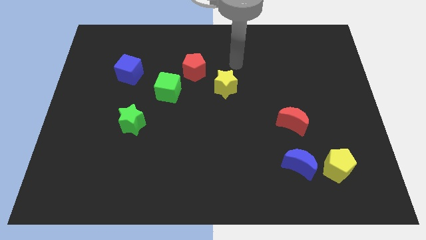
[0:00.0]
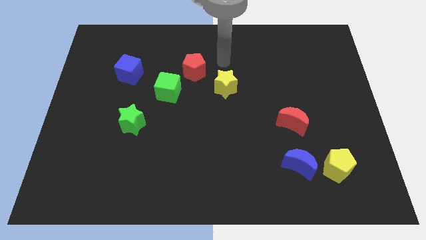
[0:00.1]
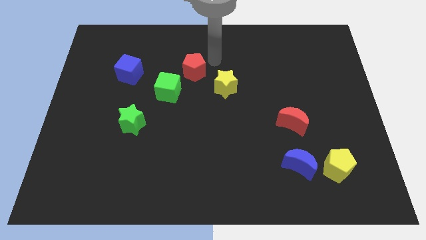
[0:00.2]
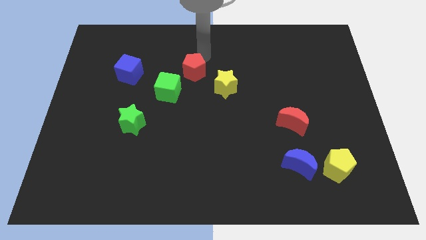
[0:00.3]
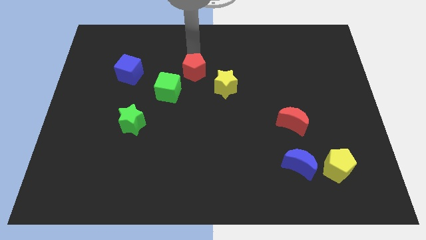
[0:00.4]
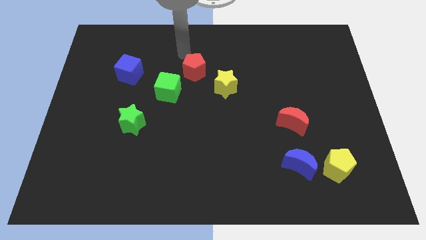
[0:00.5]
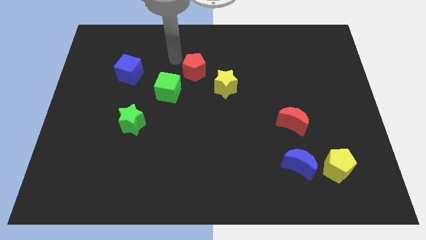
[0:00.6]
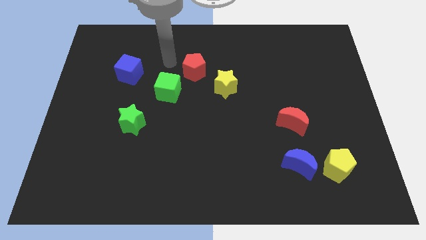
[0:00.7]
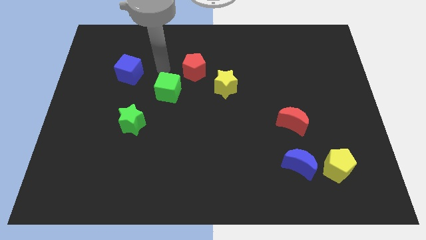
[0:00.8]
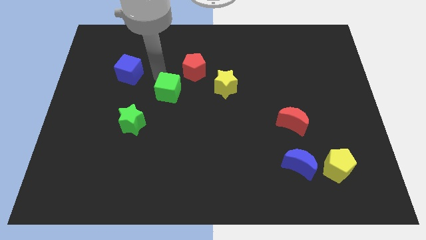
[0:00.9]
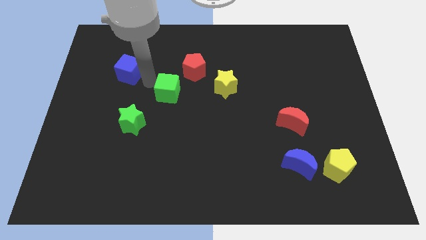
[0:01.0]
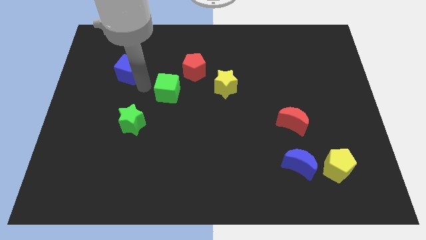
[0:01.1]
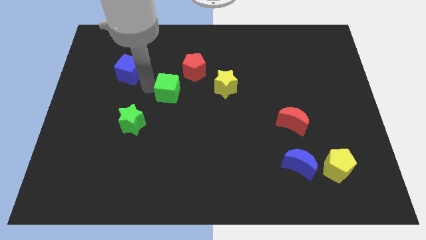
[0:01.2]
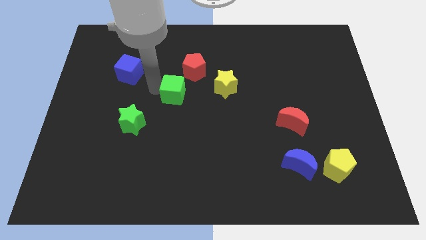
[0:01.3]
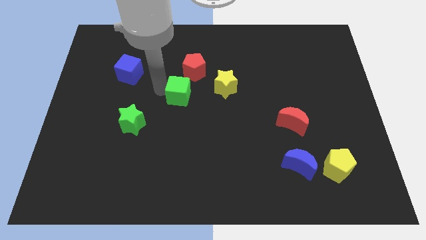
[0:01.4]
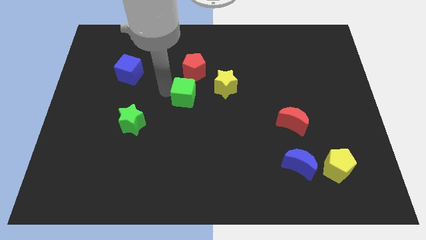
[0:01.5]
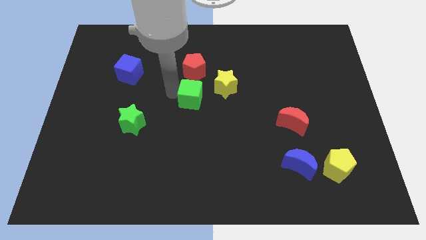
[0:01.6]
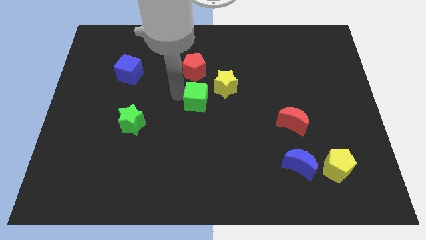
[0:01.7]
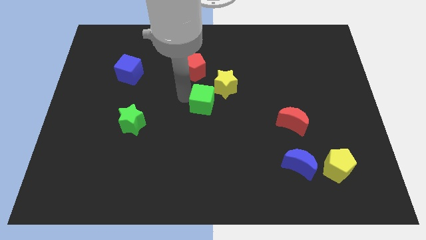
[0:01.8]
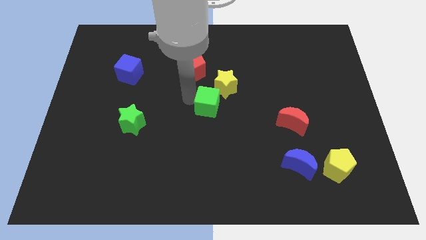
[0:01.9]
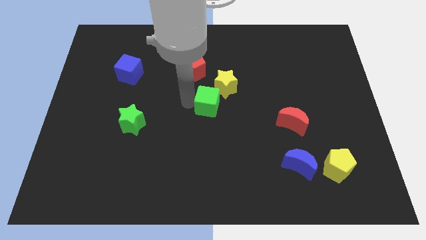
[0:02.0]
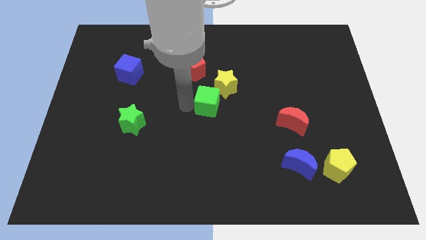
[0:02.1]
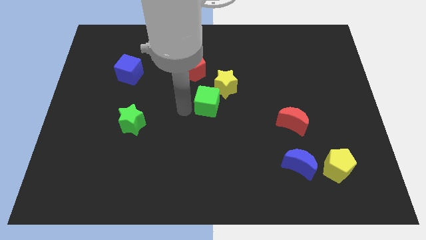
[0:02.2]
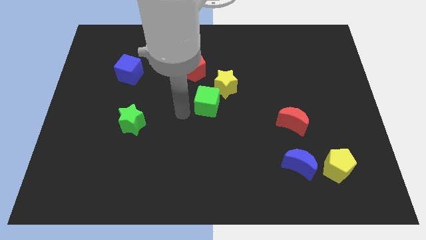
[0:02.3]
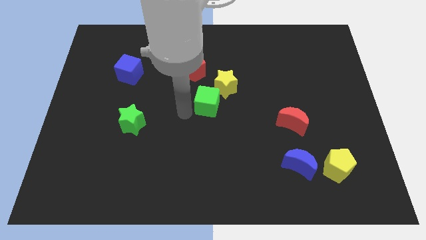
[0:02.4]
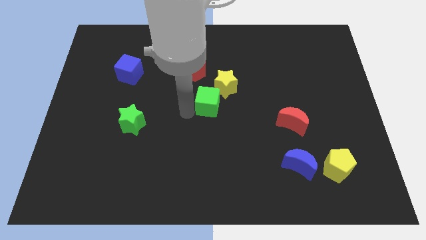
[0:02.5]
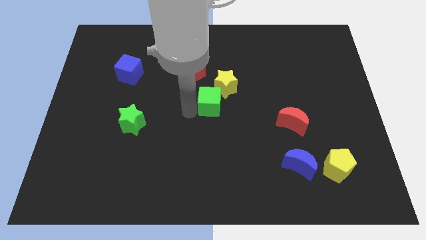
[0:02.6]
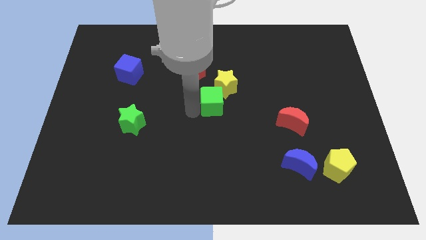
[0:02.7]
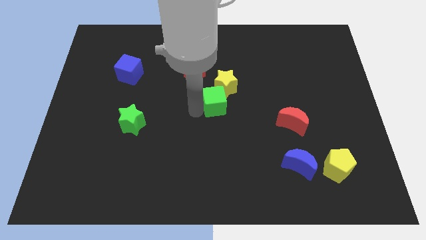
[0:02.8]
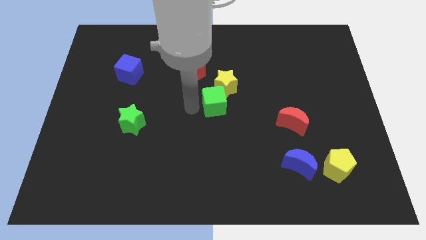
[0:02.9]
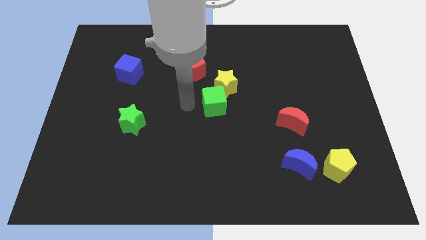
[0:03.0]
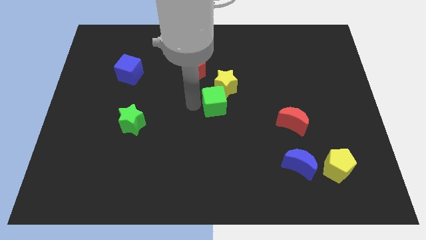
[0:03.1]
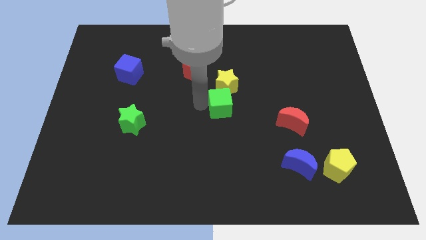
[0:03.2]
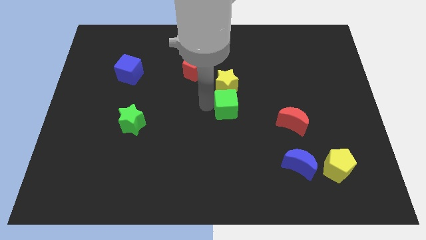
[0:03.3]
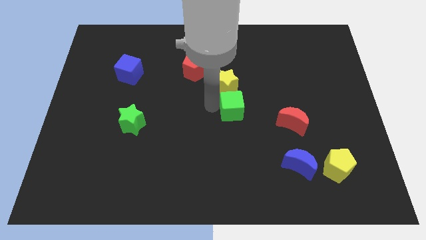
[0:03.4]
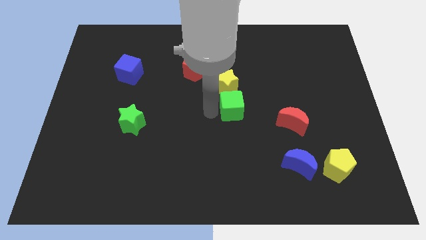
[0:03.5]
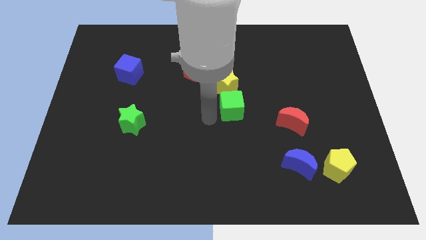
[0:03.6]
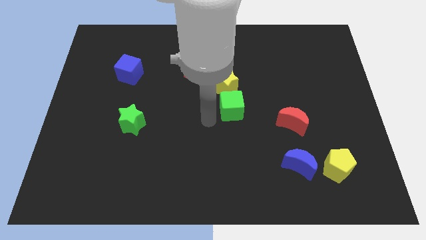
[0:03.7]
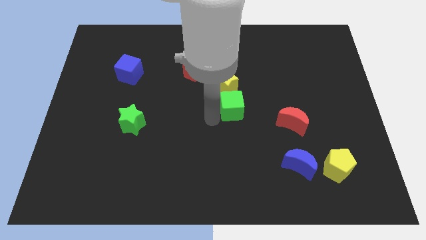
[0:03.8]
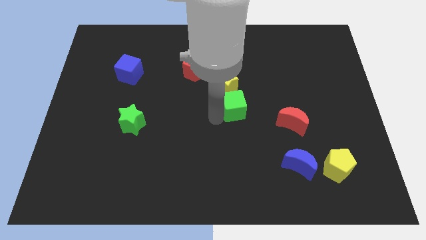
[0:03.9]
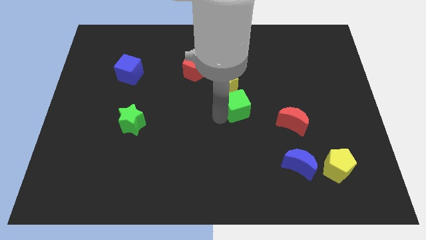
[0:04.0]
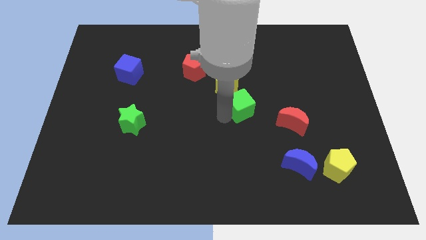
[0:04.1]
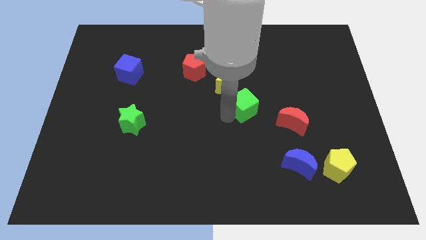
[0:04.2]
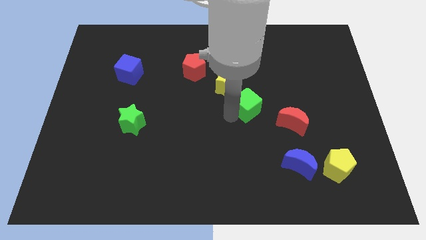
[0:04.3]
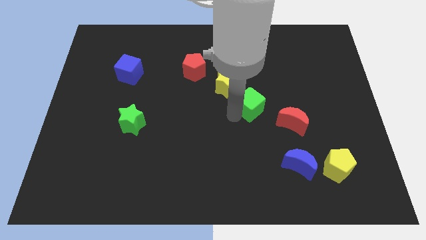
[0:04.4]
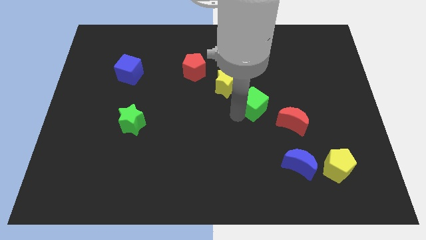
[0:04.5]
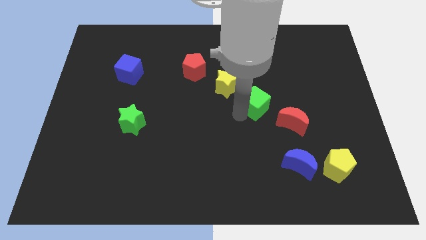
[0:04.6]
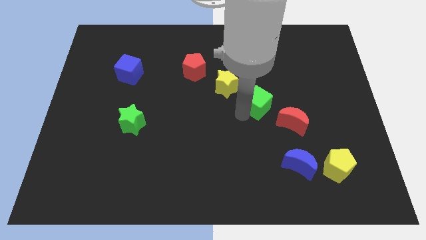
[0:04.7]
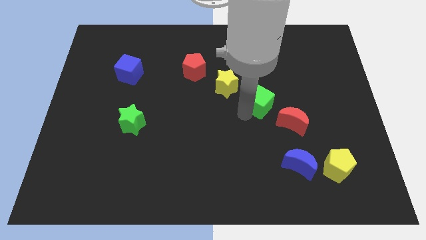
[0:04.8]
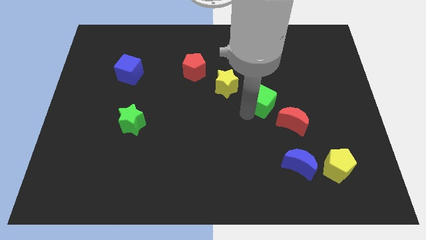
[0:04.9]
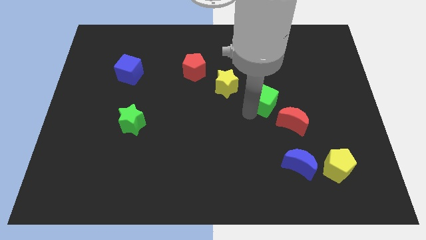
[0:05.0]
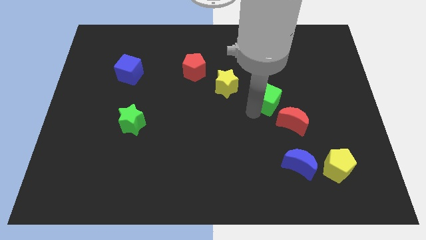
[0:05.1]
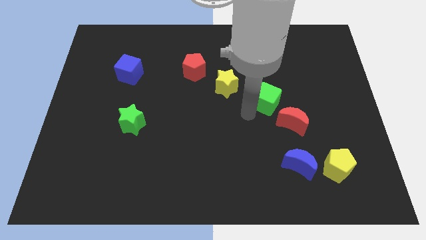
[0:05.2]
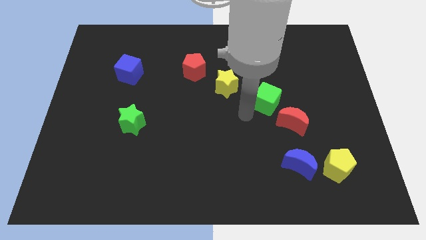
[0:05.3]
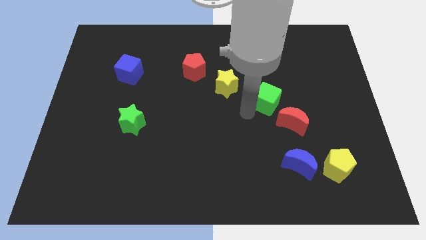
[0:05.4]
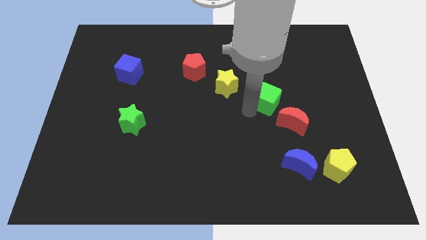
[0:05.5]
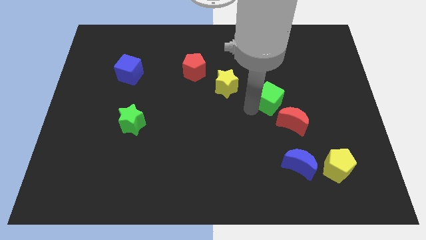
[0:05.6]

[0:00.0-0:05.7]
slide the green cube to the top side of the red moon
